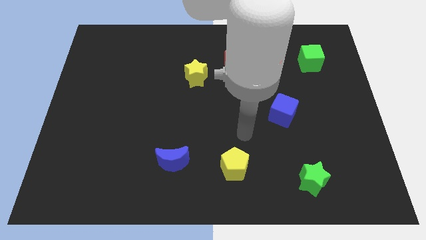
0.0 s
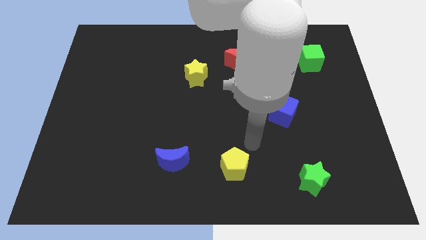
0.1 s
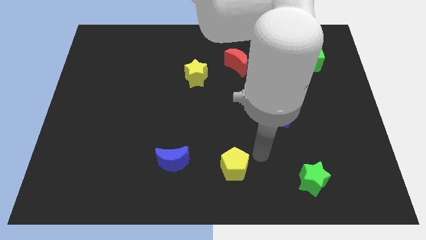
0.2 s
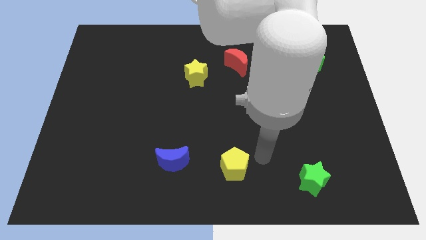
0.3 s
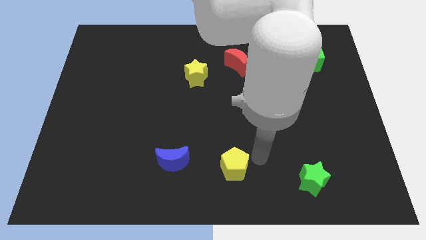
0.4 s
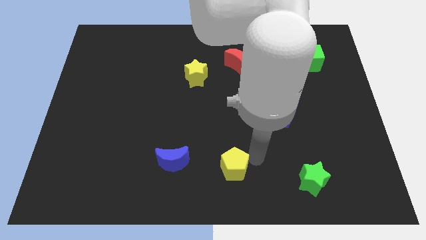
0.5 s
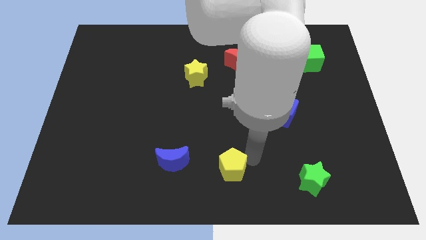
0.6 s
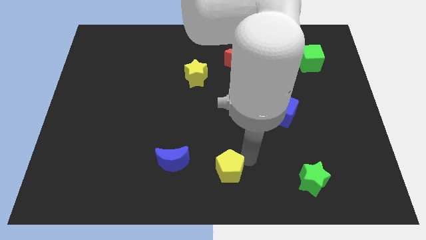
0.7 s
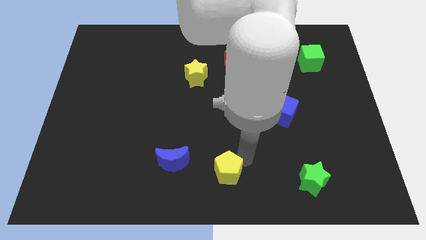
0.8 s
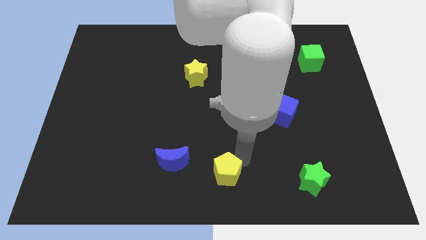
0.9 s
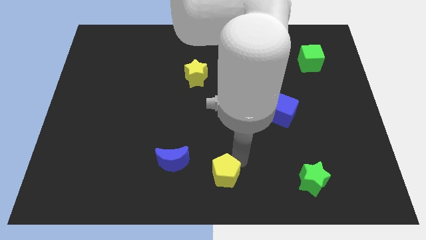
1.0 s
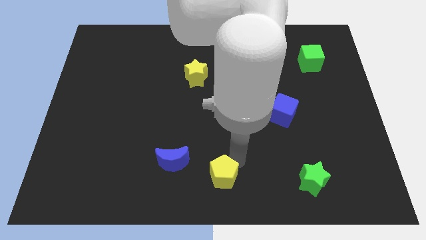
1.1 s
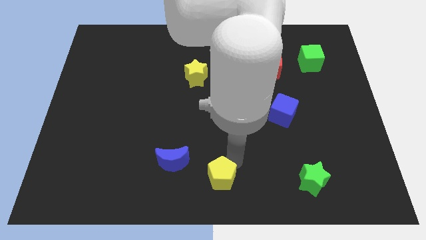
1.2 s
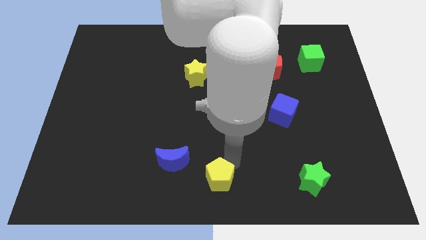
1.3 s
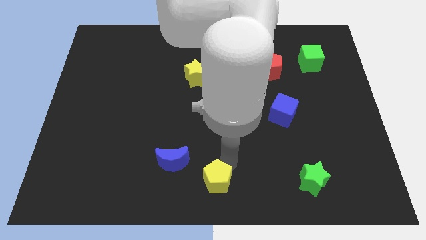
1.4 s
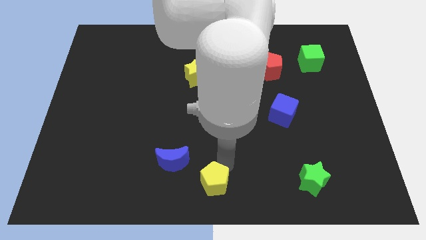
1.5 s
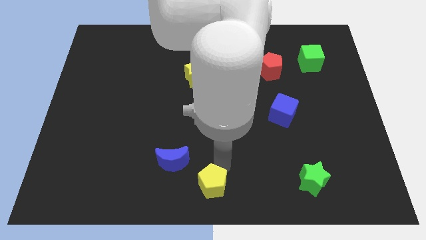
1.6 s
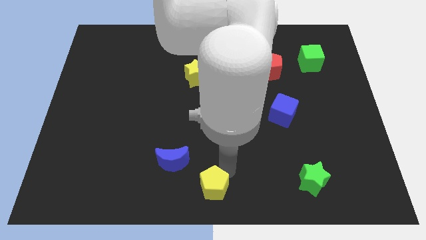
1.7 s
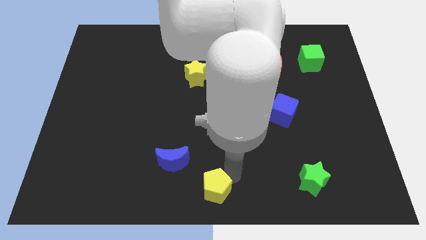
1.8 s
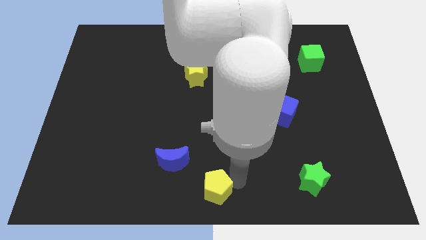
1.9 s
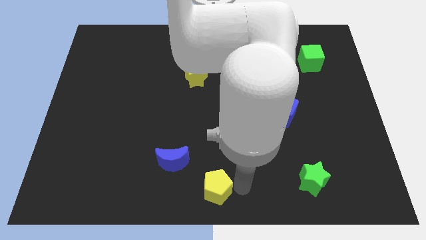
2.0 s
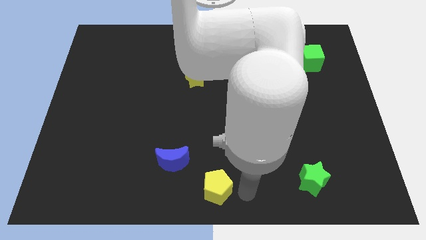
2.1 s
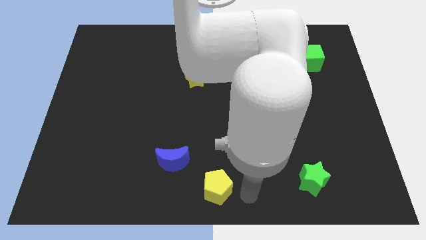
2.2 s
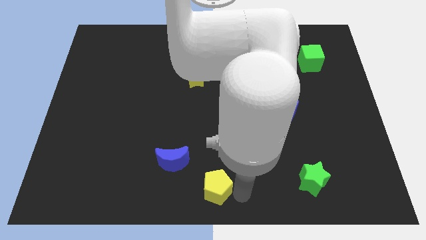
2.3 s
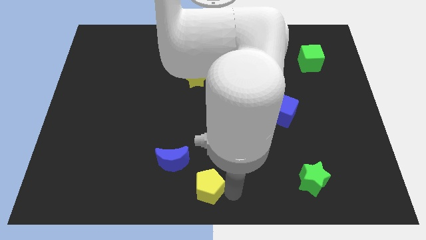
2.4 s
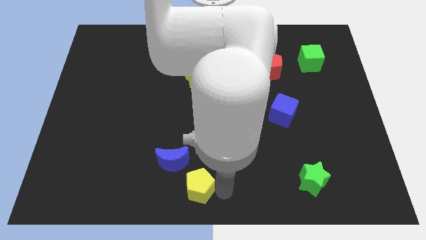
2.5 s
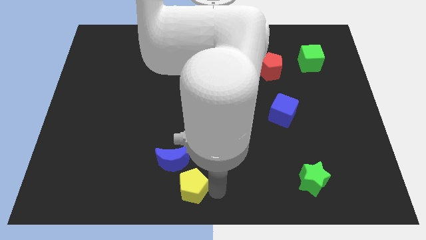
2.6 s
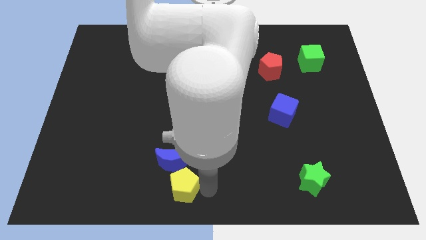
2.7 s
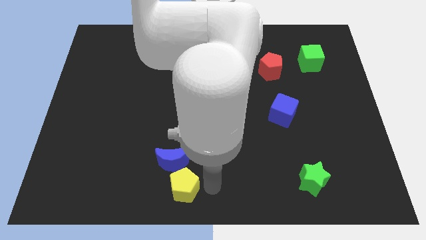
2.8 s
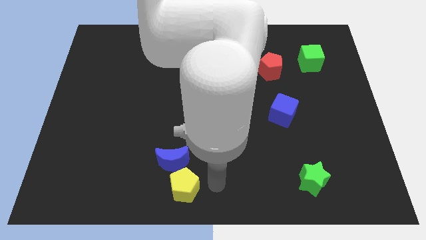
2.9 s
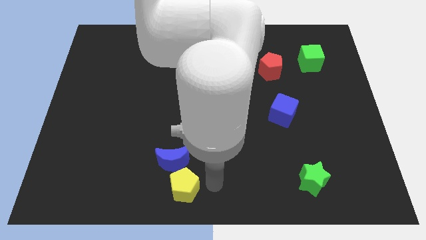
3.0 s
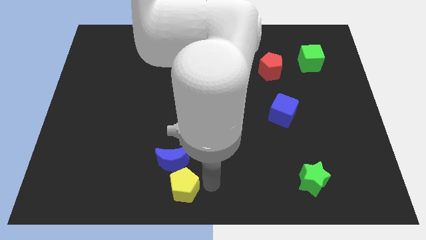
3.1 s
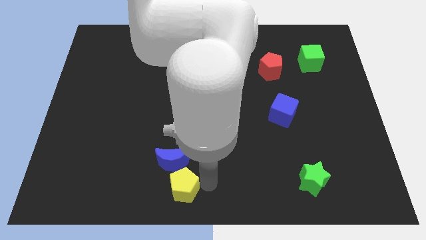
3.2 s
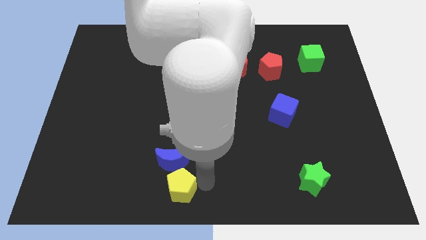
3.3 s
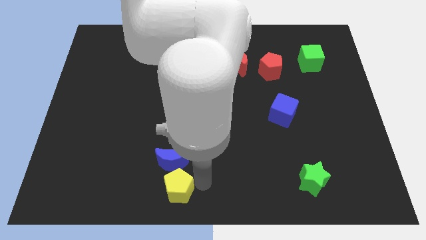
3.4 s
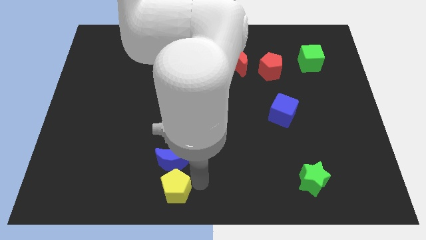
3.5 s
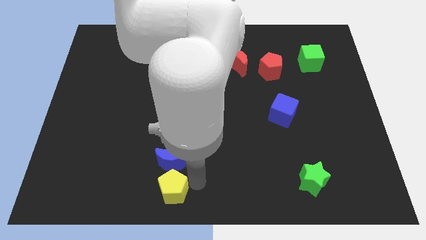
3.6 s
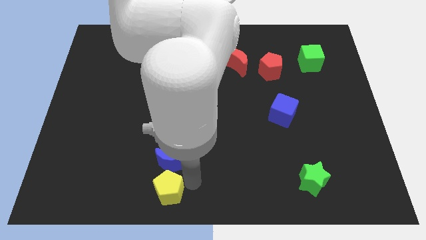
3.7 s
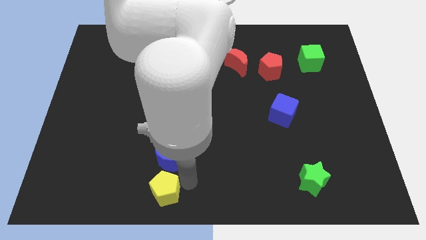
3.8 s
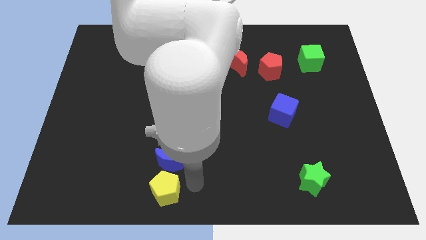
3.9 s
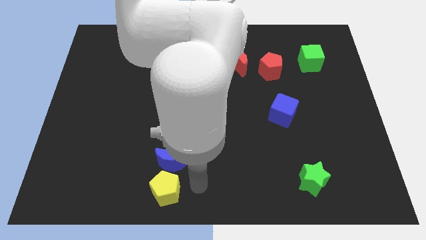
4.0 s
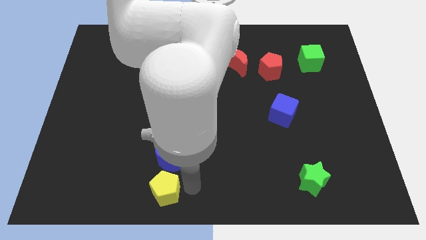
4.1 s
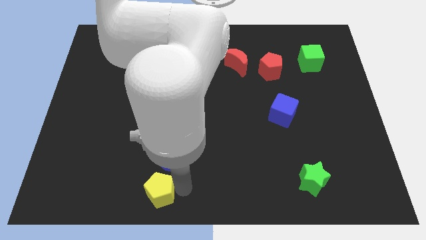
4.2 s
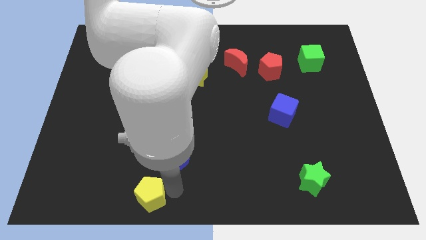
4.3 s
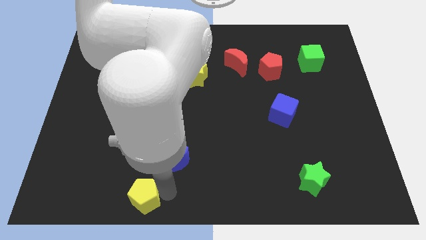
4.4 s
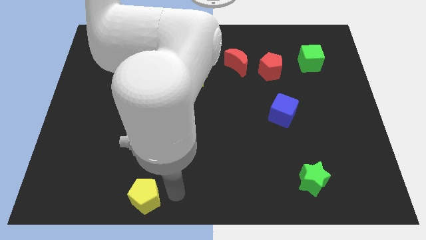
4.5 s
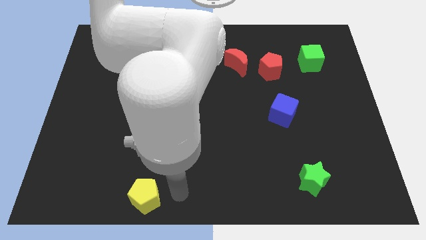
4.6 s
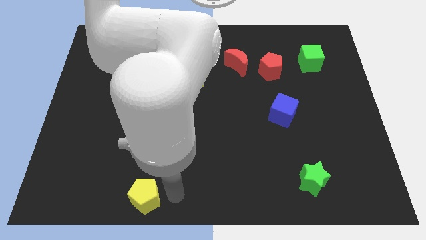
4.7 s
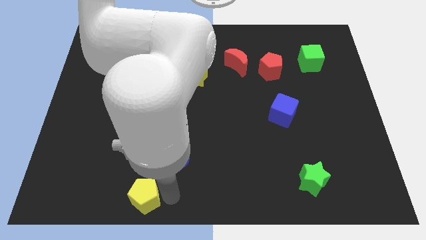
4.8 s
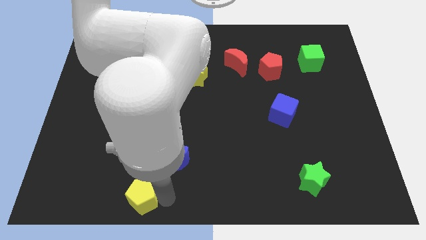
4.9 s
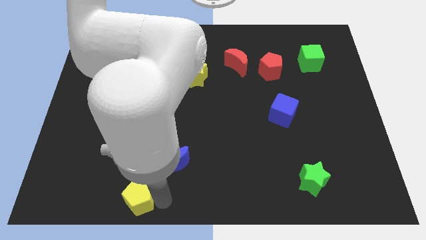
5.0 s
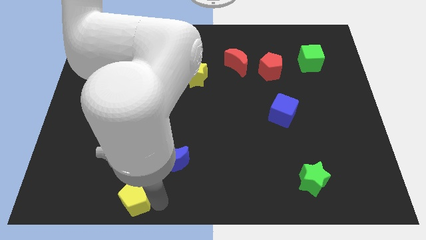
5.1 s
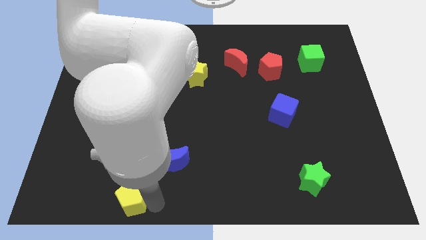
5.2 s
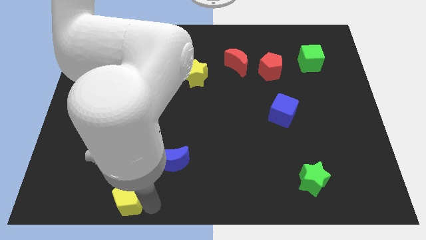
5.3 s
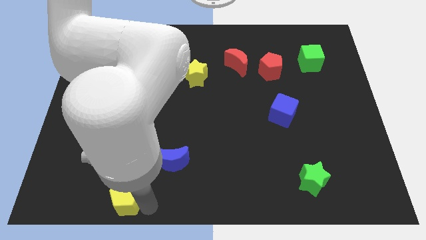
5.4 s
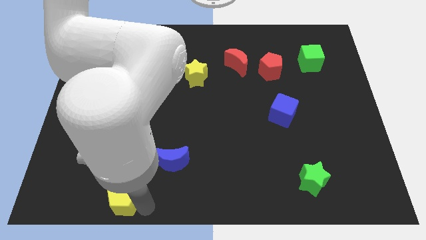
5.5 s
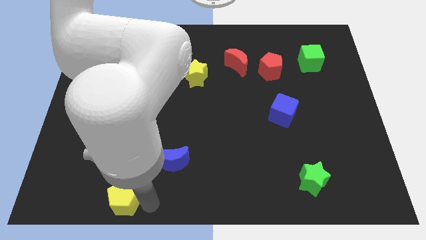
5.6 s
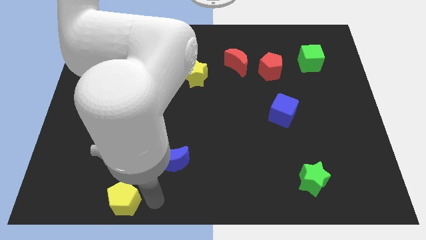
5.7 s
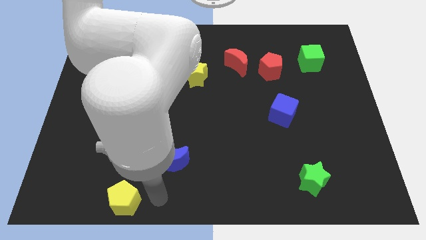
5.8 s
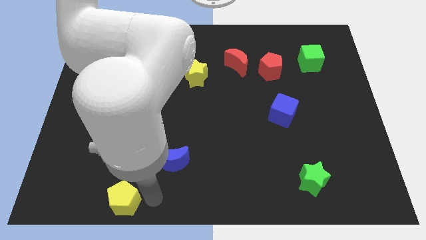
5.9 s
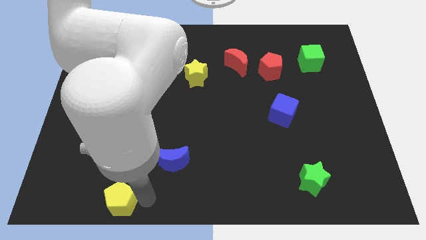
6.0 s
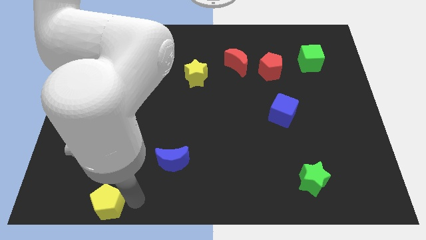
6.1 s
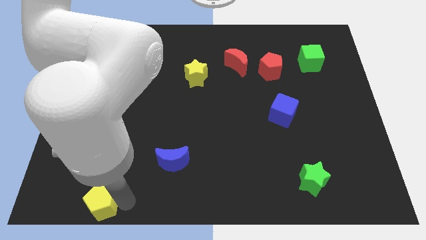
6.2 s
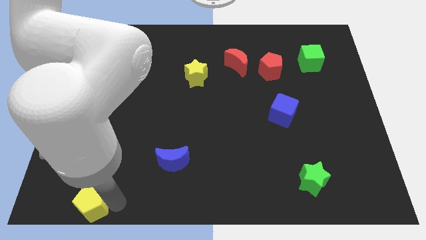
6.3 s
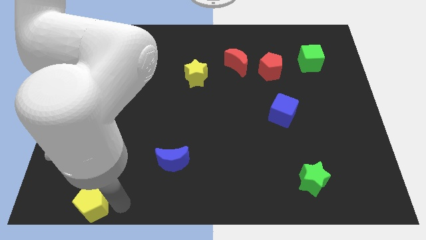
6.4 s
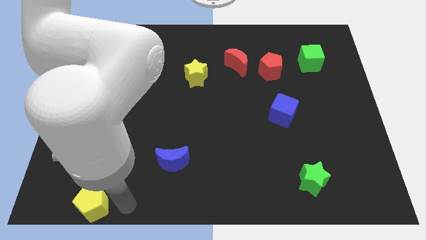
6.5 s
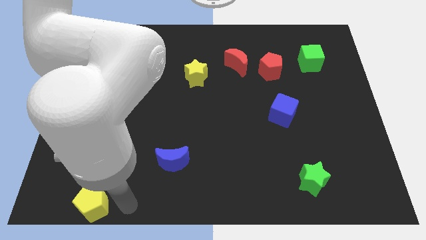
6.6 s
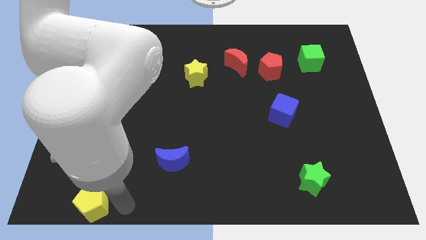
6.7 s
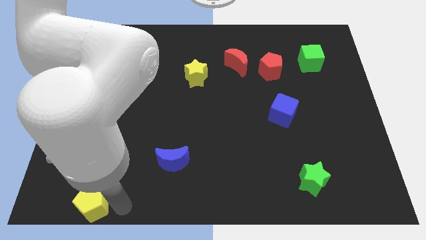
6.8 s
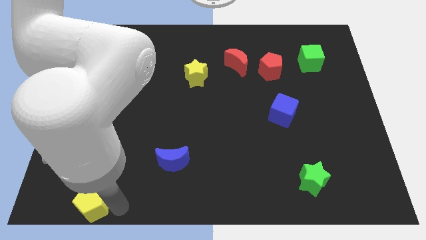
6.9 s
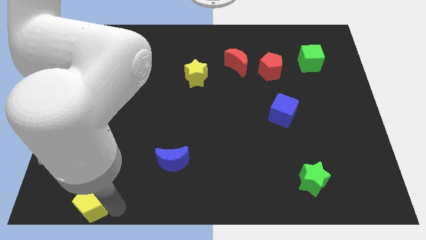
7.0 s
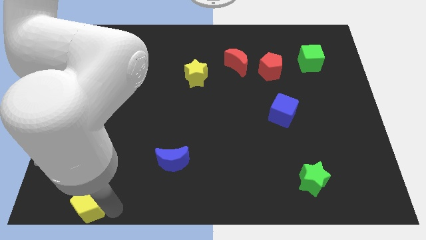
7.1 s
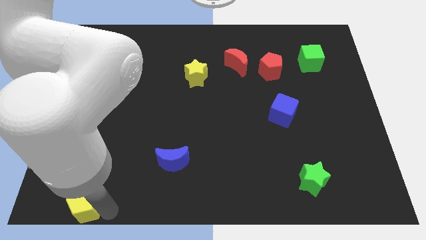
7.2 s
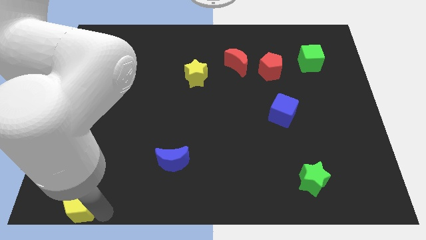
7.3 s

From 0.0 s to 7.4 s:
push the yellow pentagon to the bottom left

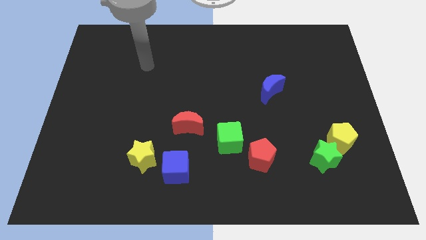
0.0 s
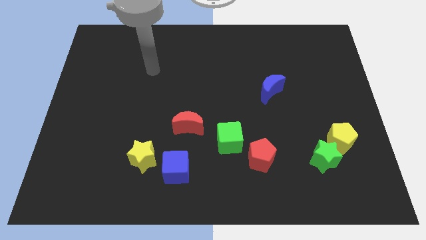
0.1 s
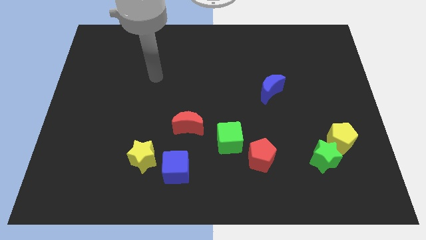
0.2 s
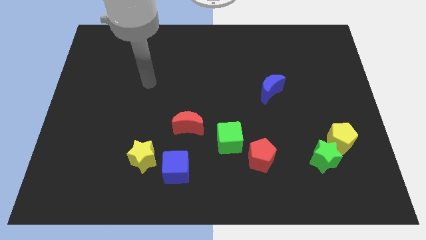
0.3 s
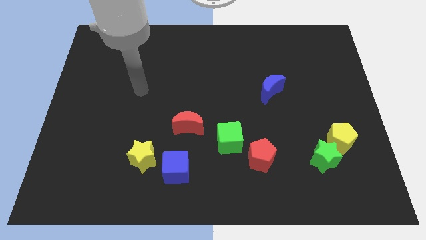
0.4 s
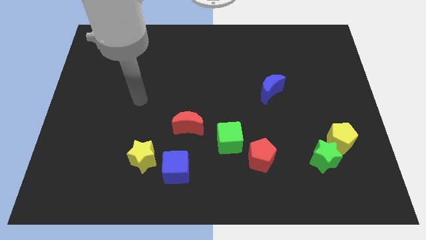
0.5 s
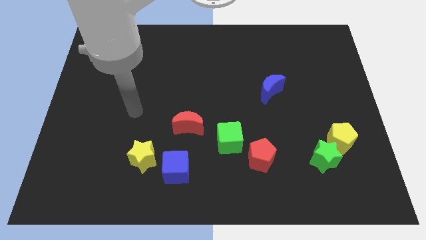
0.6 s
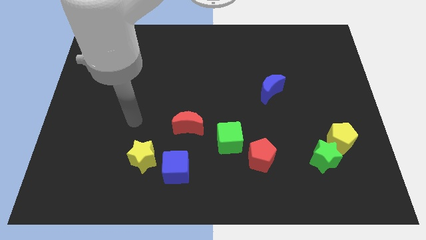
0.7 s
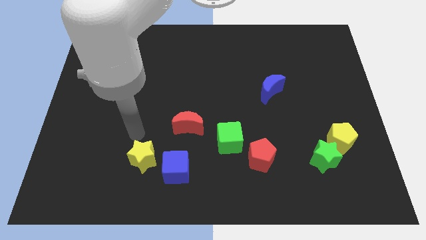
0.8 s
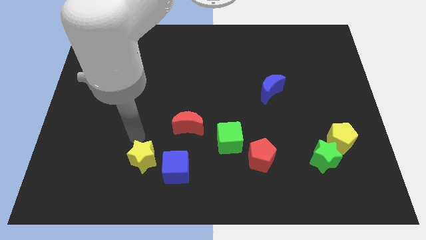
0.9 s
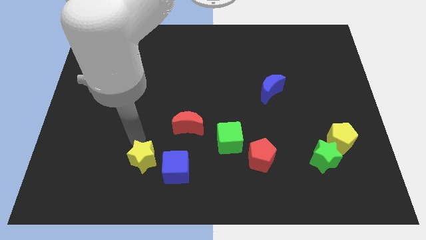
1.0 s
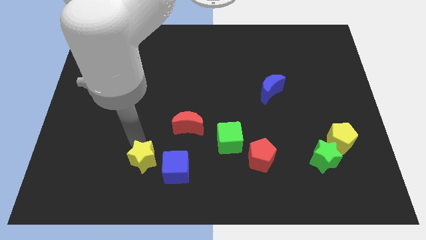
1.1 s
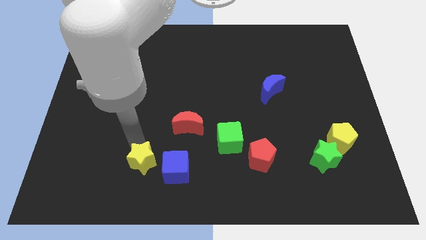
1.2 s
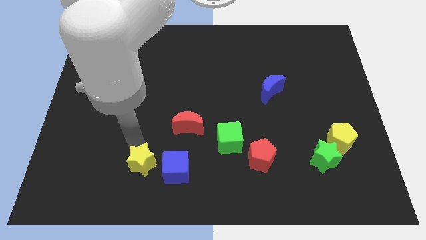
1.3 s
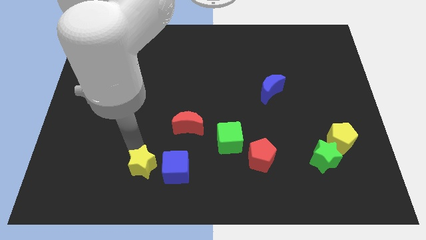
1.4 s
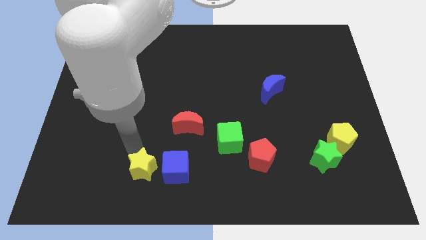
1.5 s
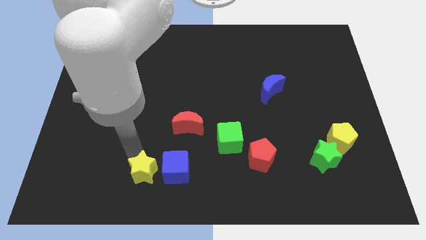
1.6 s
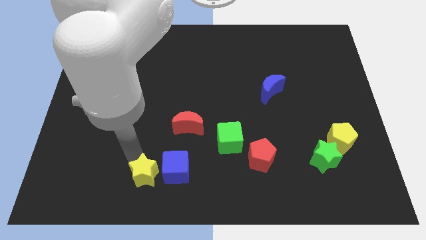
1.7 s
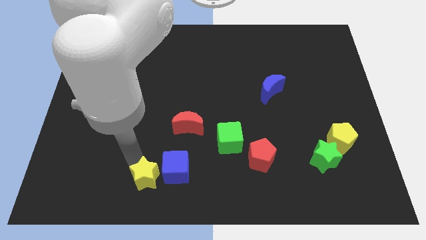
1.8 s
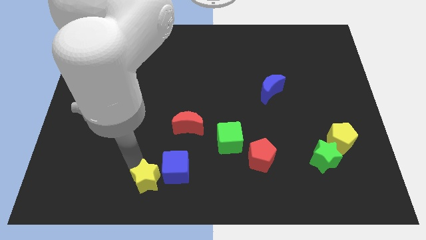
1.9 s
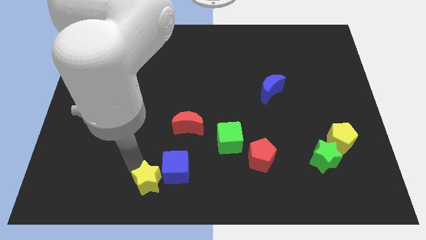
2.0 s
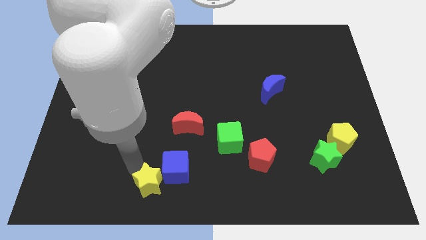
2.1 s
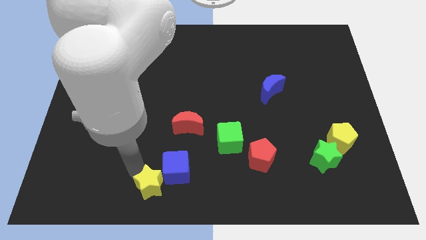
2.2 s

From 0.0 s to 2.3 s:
move the yellow star to the bottom side
